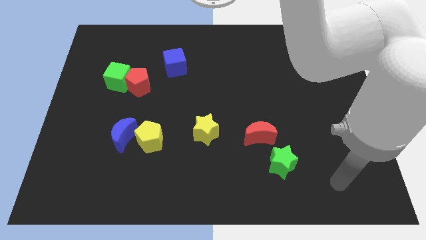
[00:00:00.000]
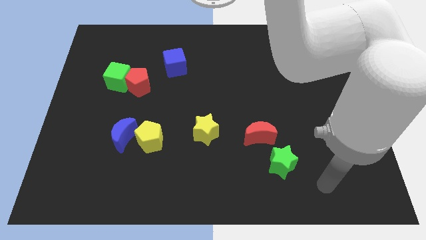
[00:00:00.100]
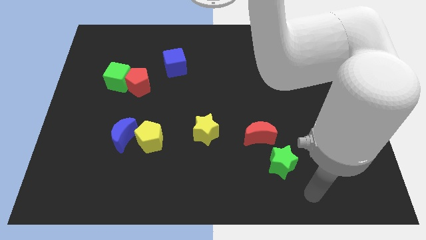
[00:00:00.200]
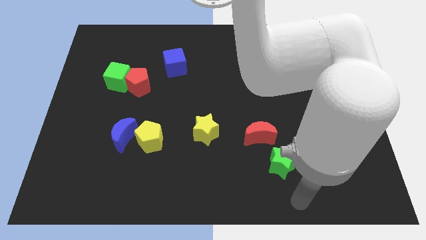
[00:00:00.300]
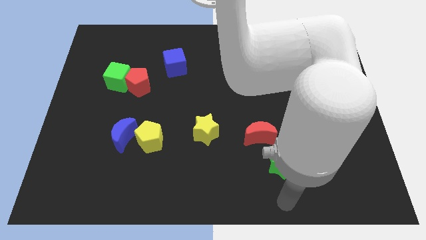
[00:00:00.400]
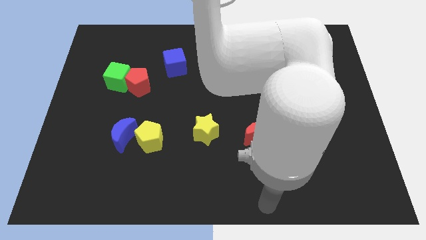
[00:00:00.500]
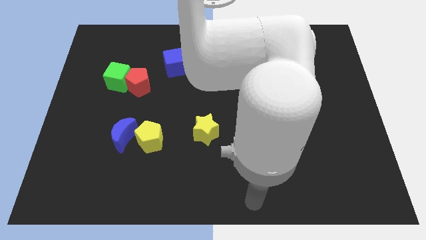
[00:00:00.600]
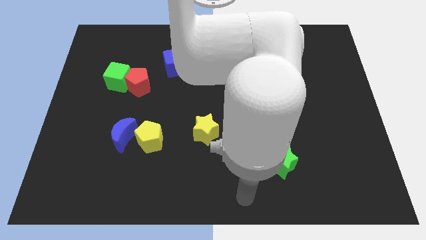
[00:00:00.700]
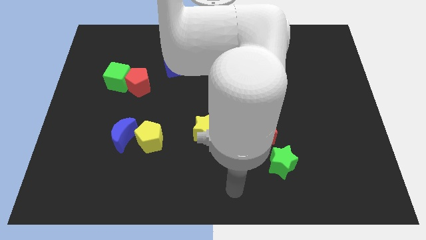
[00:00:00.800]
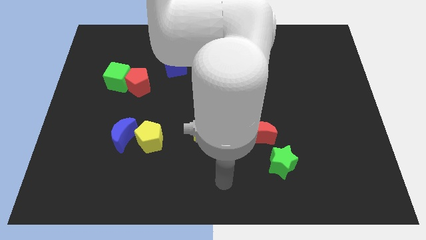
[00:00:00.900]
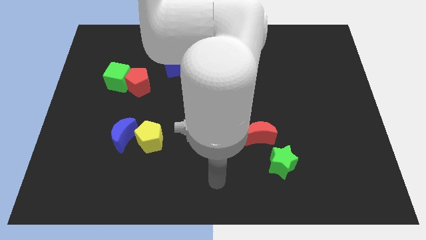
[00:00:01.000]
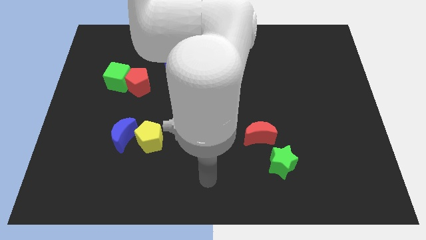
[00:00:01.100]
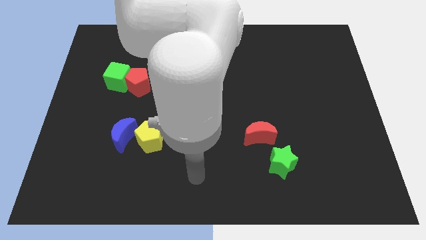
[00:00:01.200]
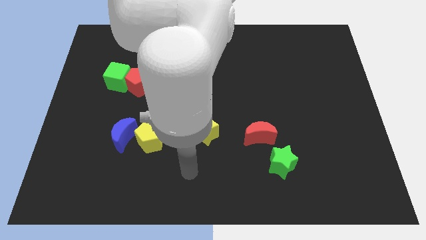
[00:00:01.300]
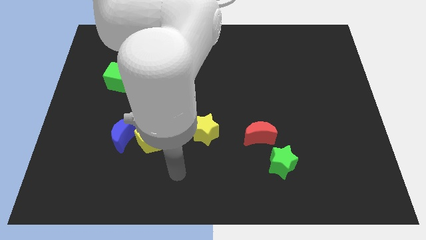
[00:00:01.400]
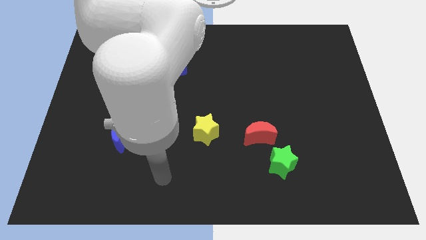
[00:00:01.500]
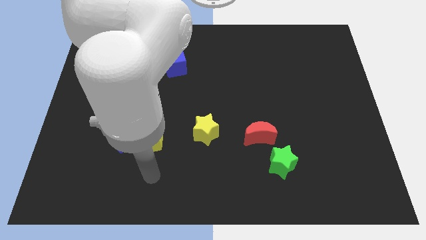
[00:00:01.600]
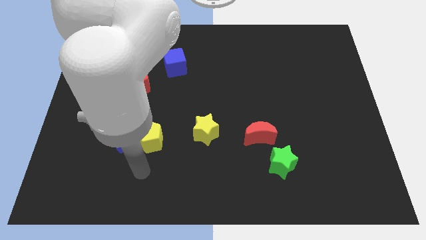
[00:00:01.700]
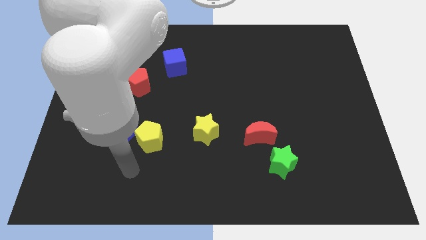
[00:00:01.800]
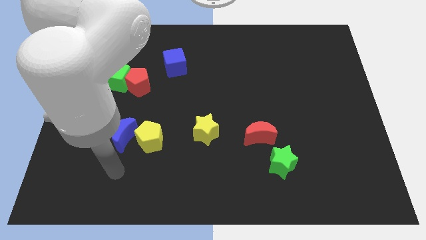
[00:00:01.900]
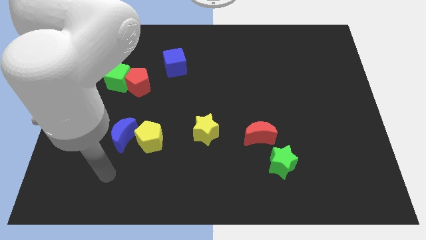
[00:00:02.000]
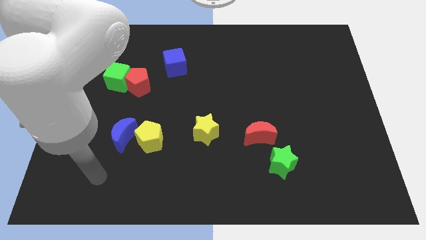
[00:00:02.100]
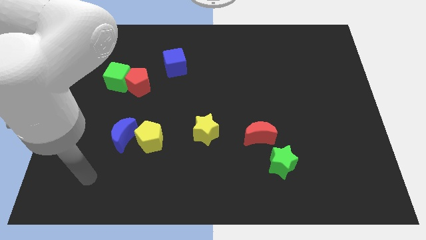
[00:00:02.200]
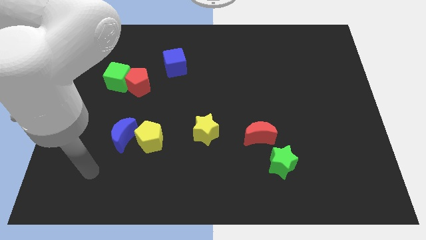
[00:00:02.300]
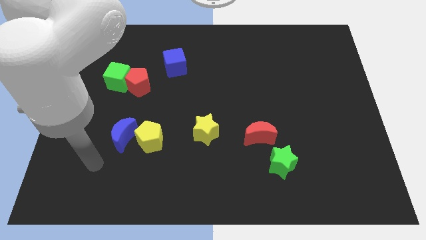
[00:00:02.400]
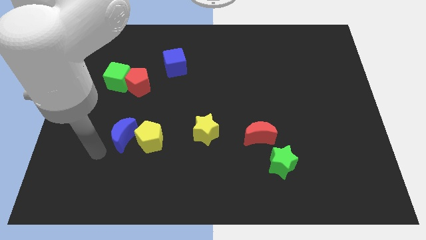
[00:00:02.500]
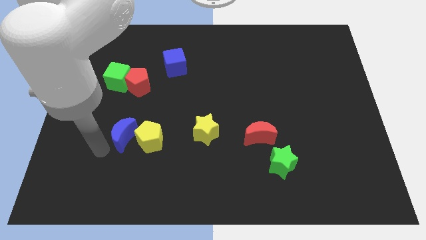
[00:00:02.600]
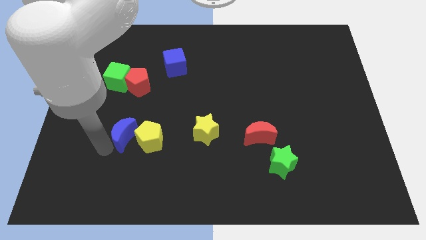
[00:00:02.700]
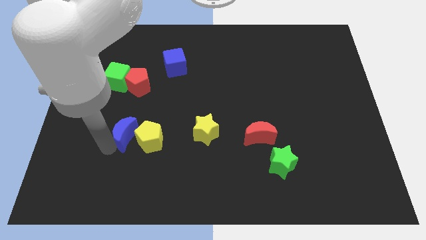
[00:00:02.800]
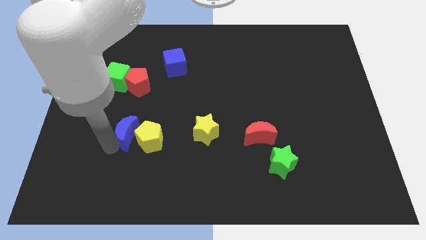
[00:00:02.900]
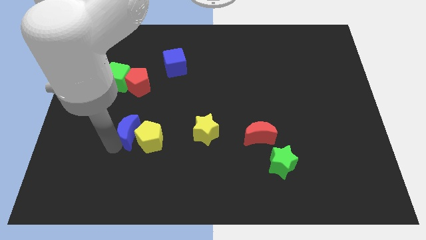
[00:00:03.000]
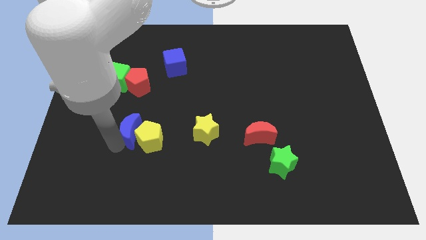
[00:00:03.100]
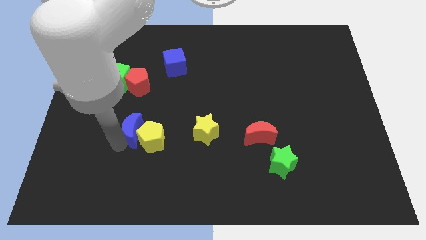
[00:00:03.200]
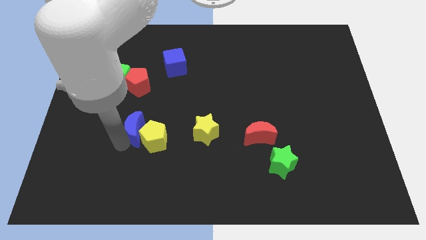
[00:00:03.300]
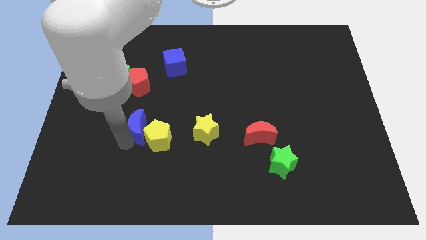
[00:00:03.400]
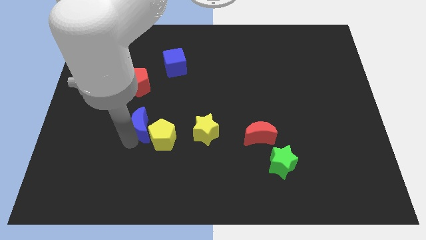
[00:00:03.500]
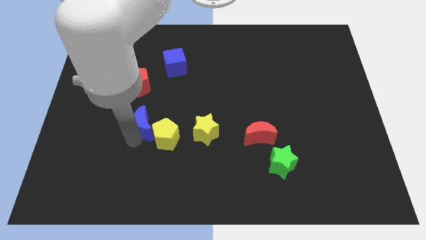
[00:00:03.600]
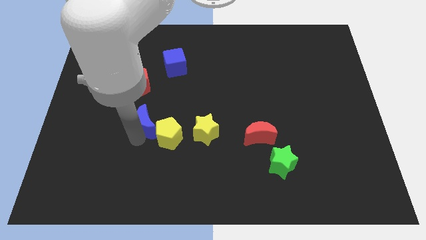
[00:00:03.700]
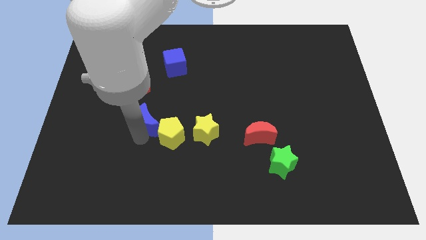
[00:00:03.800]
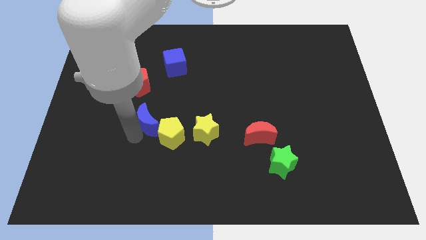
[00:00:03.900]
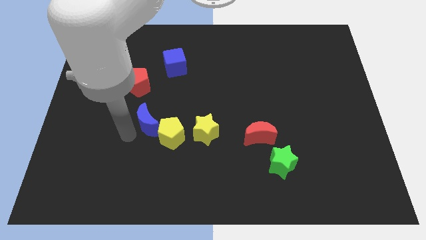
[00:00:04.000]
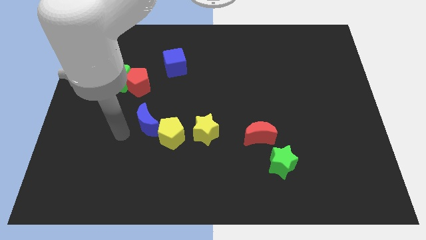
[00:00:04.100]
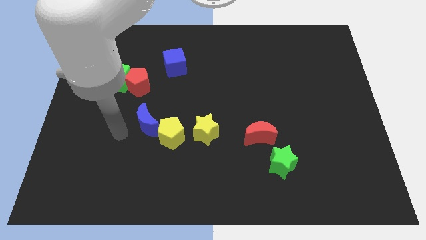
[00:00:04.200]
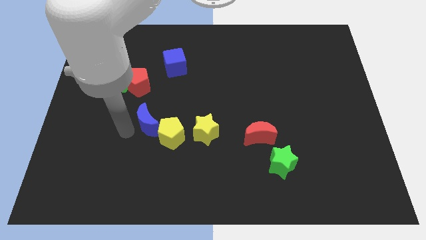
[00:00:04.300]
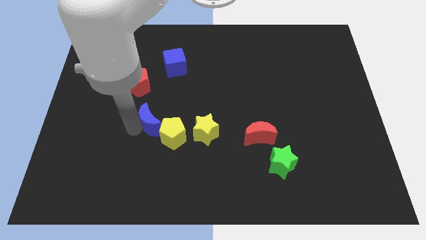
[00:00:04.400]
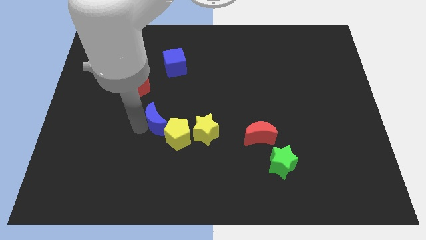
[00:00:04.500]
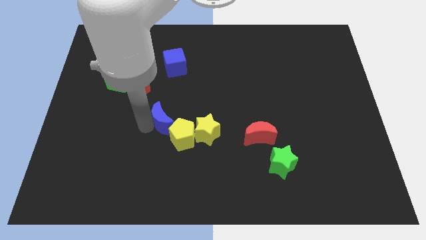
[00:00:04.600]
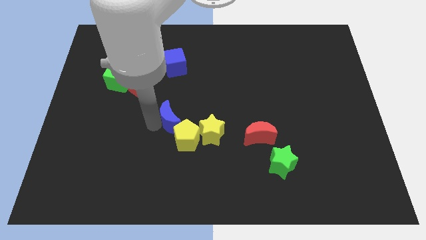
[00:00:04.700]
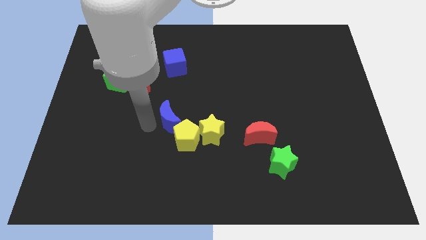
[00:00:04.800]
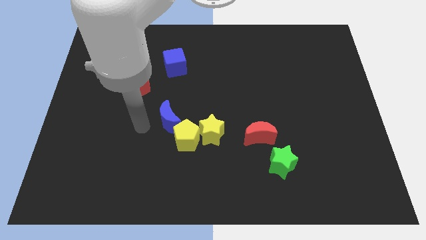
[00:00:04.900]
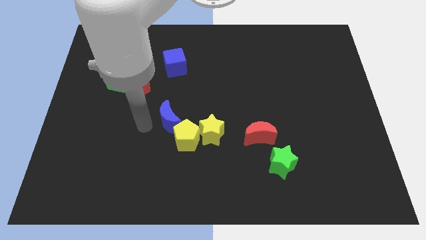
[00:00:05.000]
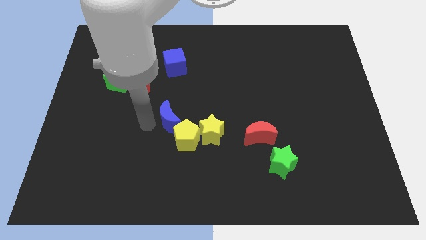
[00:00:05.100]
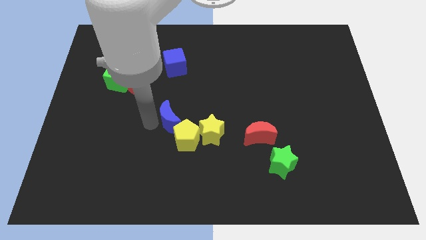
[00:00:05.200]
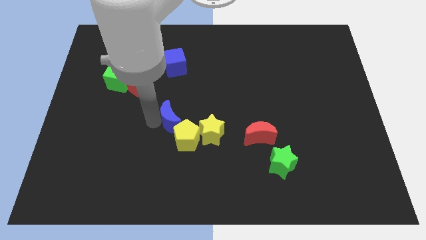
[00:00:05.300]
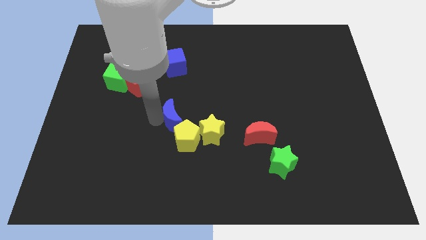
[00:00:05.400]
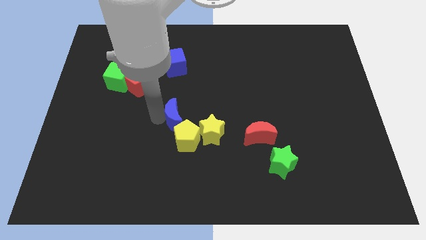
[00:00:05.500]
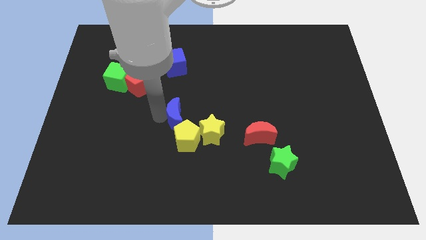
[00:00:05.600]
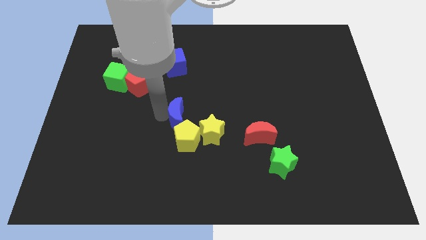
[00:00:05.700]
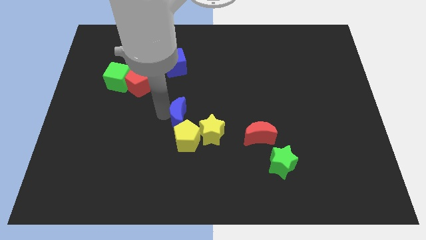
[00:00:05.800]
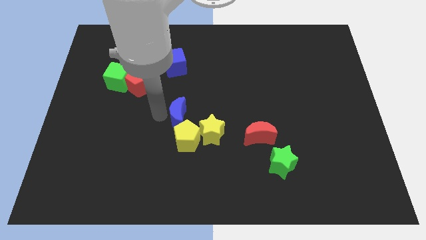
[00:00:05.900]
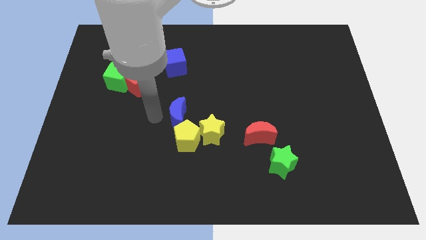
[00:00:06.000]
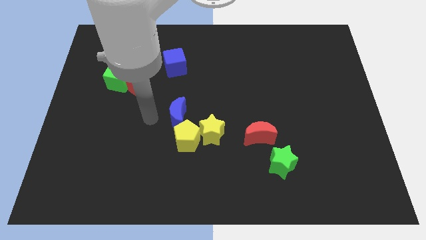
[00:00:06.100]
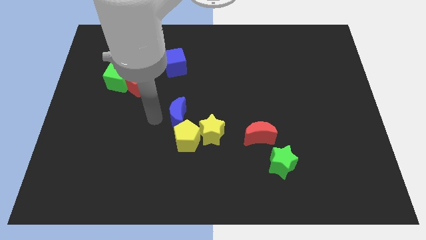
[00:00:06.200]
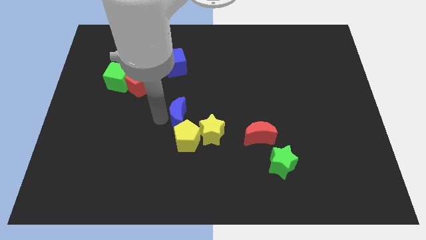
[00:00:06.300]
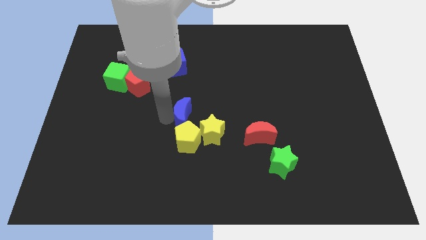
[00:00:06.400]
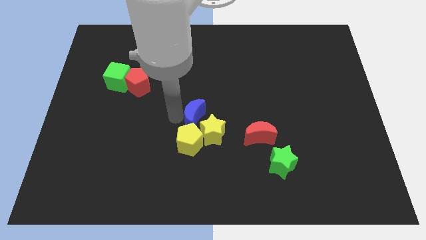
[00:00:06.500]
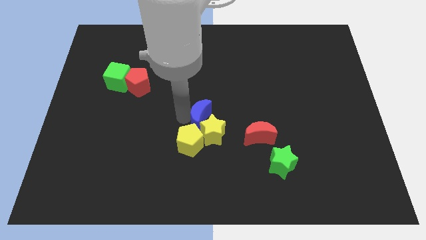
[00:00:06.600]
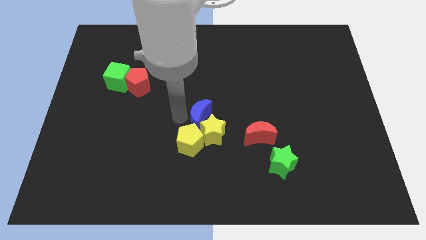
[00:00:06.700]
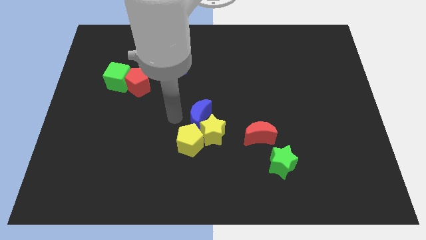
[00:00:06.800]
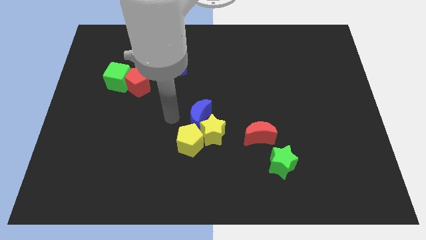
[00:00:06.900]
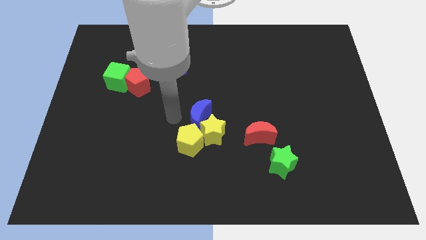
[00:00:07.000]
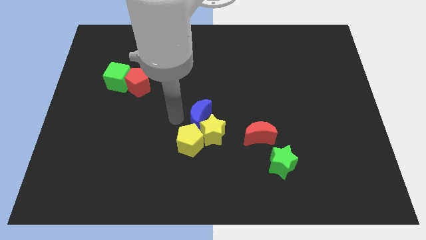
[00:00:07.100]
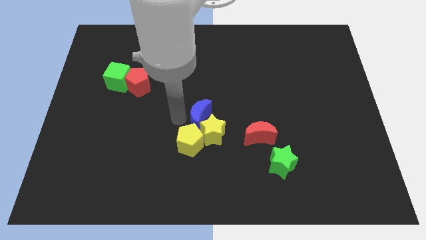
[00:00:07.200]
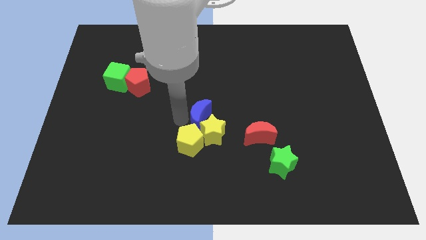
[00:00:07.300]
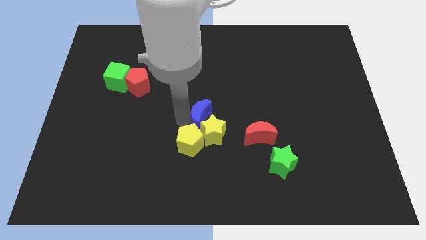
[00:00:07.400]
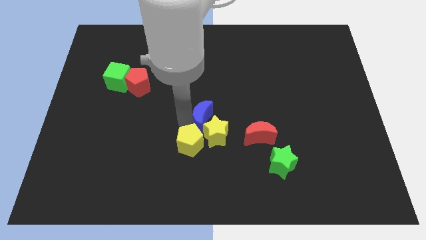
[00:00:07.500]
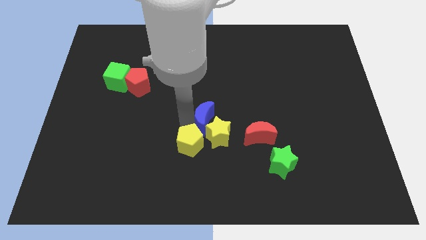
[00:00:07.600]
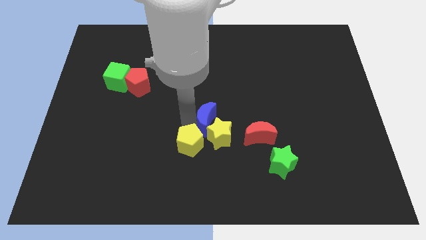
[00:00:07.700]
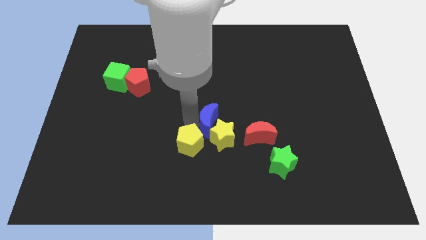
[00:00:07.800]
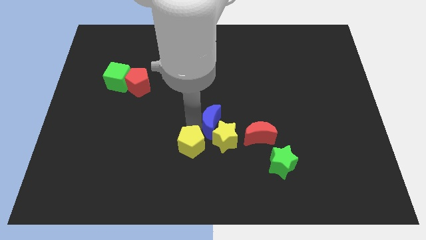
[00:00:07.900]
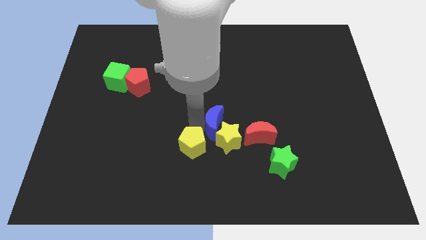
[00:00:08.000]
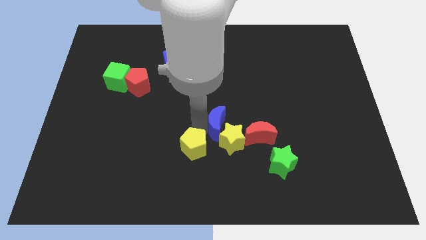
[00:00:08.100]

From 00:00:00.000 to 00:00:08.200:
push the blue moon diagonally up and to the left of the red moon
